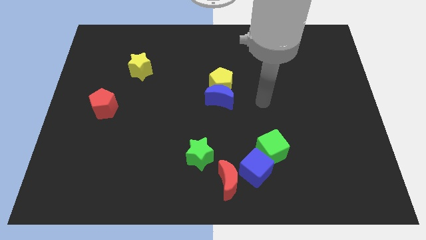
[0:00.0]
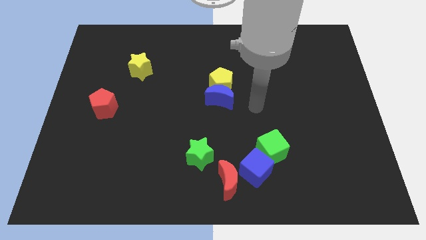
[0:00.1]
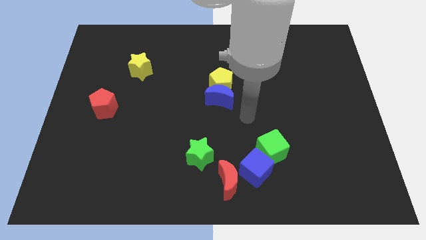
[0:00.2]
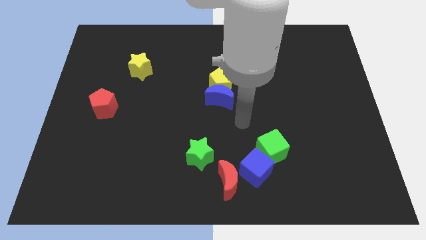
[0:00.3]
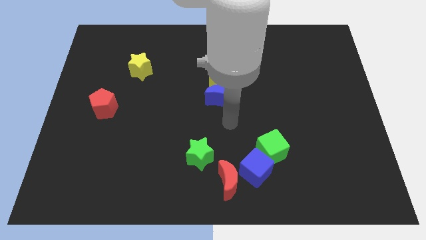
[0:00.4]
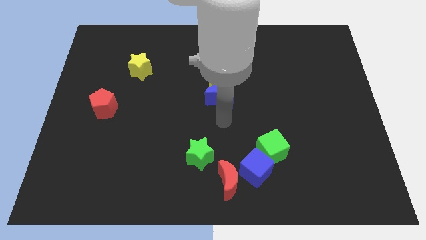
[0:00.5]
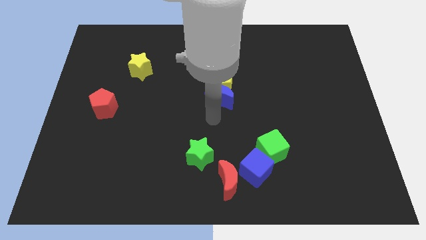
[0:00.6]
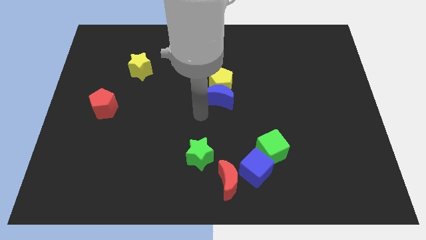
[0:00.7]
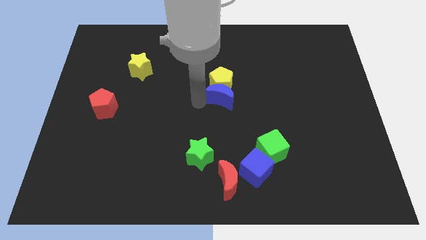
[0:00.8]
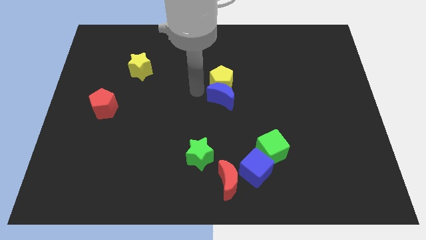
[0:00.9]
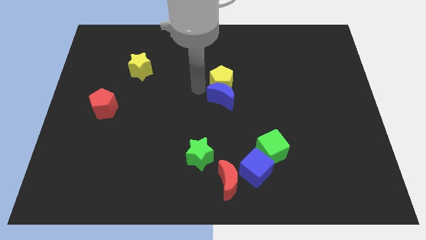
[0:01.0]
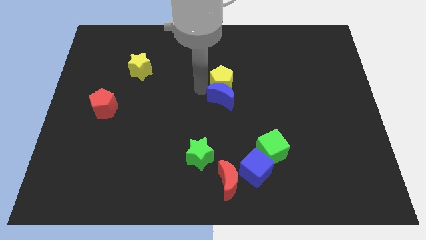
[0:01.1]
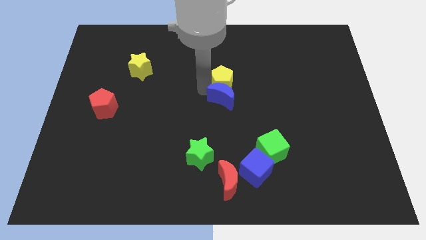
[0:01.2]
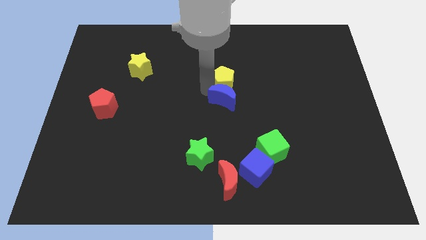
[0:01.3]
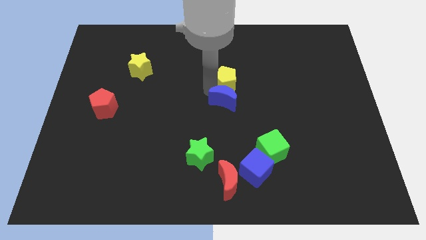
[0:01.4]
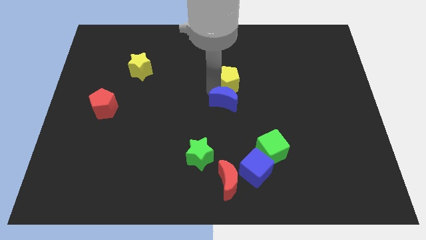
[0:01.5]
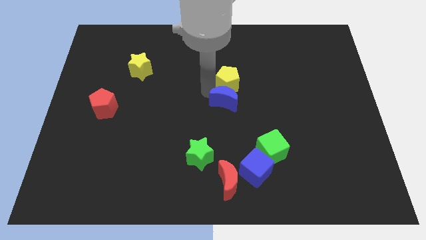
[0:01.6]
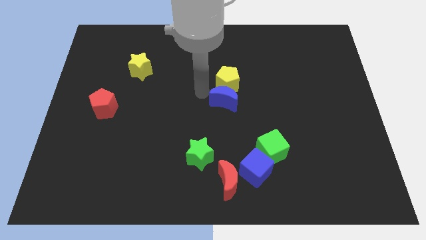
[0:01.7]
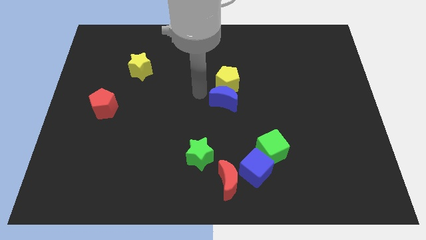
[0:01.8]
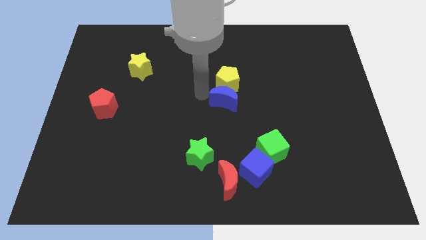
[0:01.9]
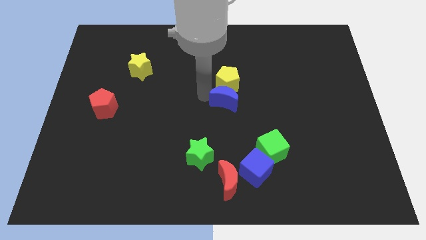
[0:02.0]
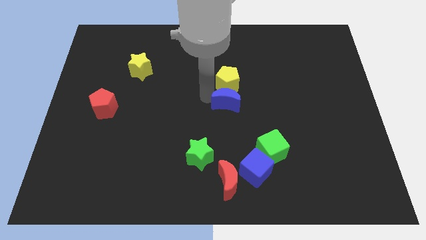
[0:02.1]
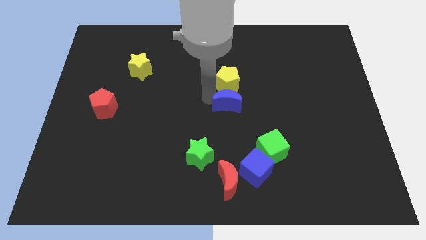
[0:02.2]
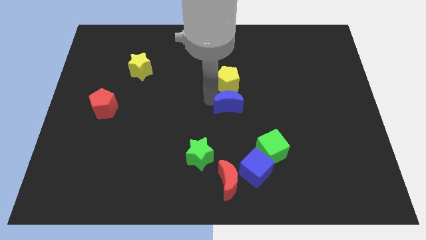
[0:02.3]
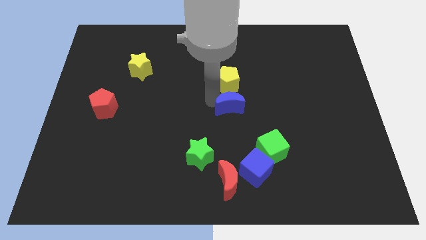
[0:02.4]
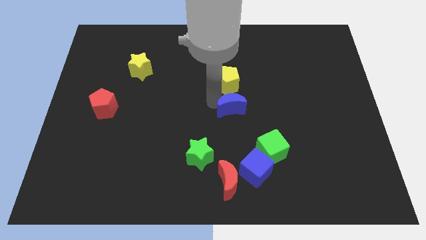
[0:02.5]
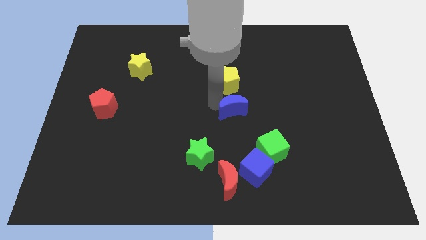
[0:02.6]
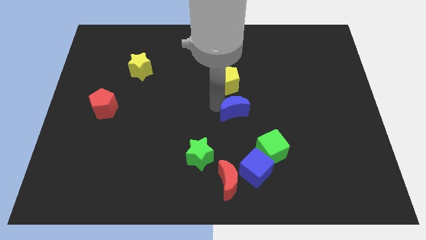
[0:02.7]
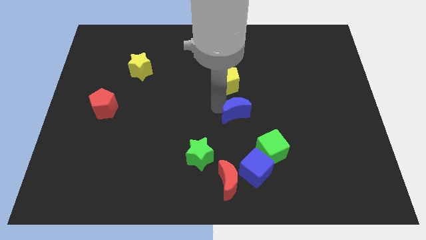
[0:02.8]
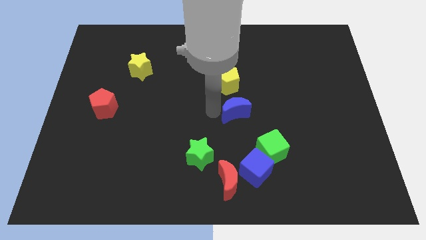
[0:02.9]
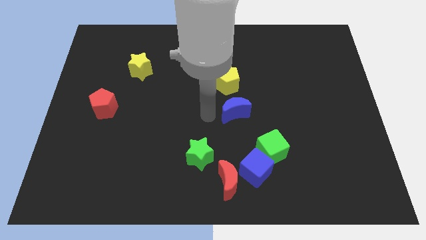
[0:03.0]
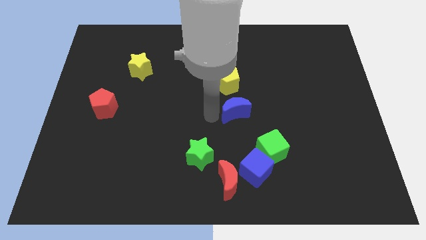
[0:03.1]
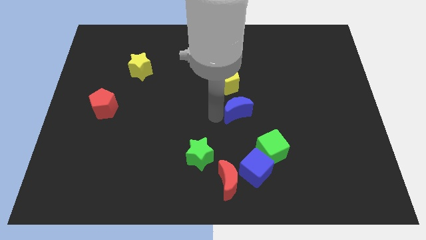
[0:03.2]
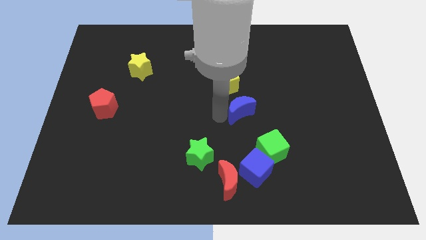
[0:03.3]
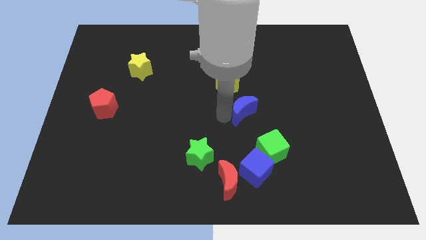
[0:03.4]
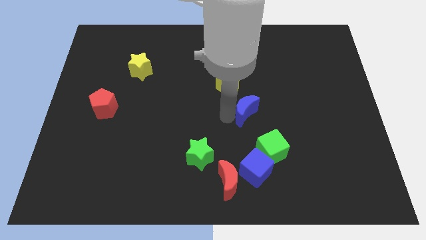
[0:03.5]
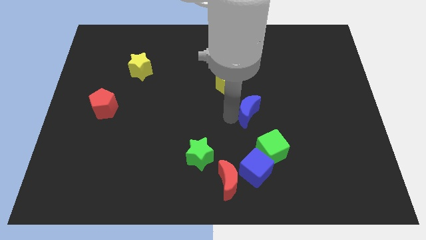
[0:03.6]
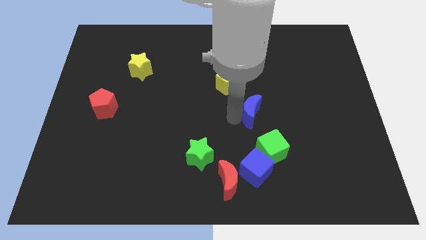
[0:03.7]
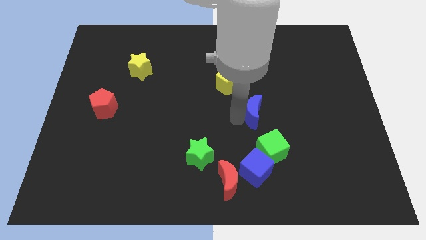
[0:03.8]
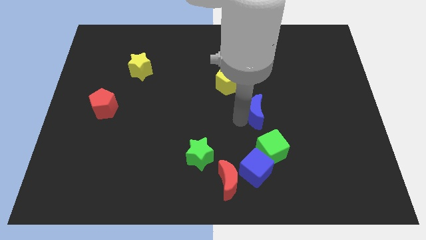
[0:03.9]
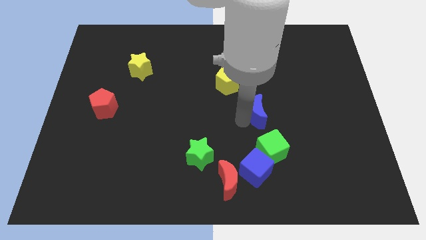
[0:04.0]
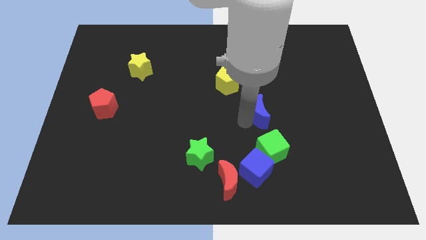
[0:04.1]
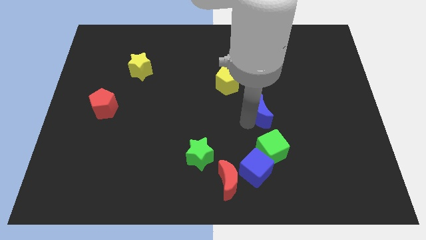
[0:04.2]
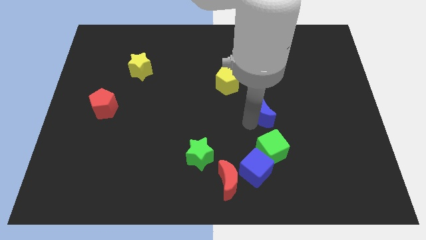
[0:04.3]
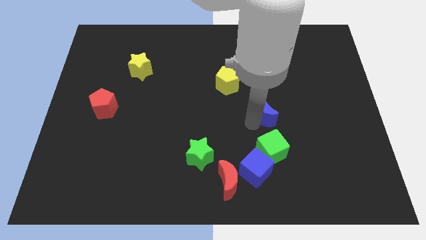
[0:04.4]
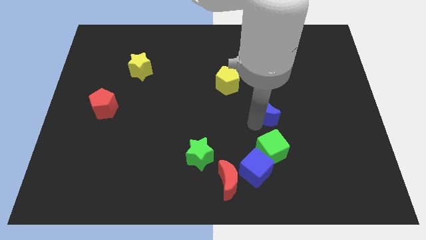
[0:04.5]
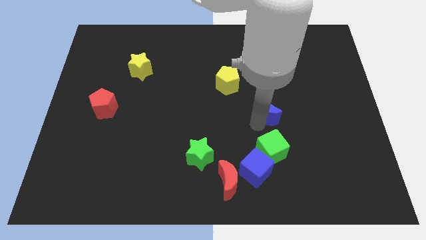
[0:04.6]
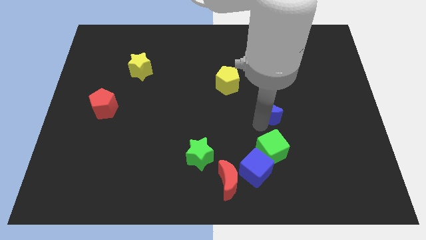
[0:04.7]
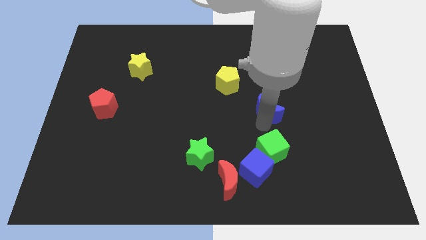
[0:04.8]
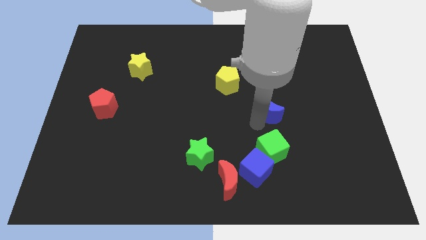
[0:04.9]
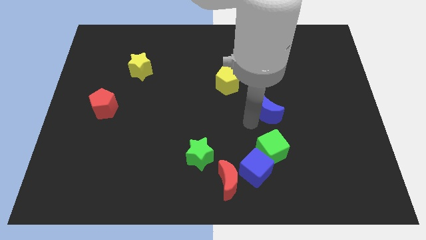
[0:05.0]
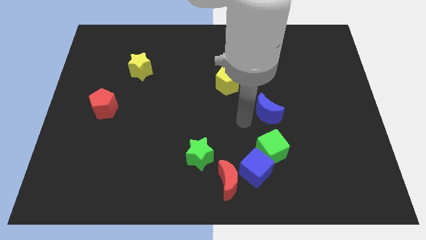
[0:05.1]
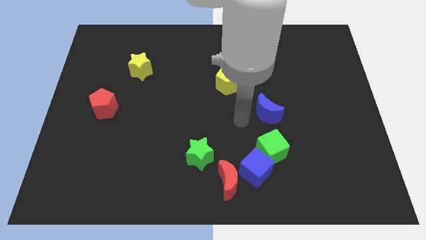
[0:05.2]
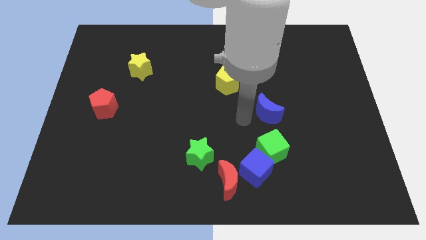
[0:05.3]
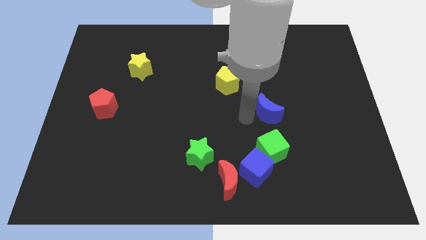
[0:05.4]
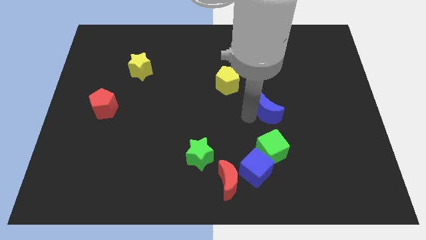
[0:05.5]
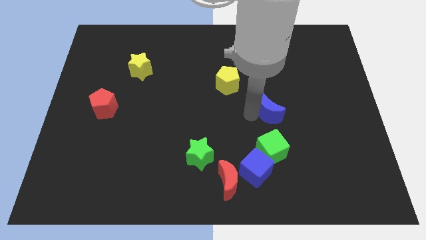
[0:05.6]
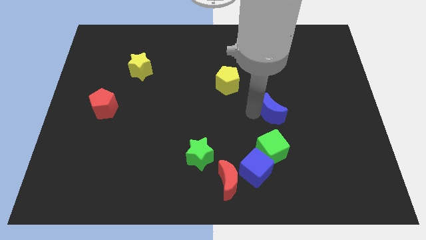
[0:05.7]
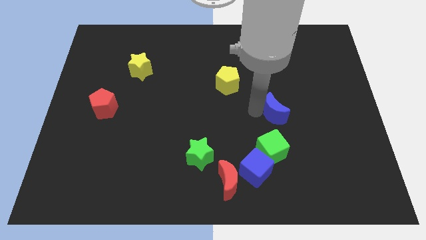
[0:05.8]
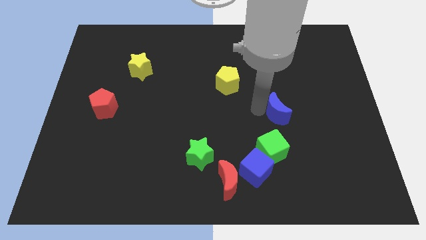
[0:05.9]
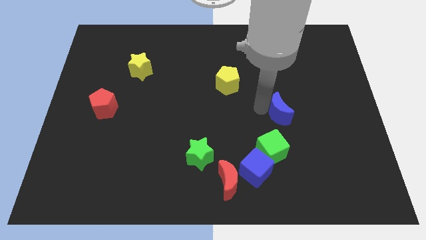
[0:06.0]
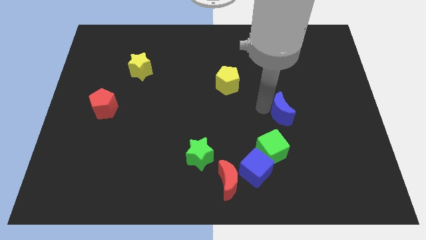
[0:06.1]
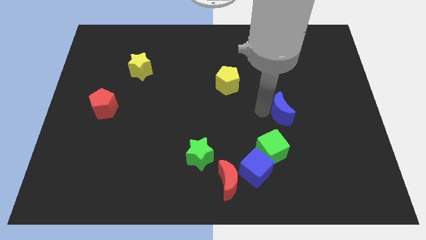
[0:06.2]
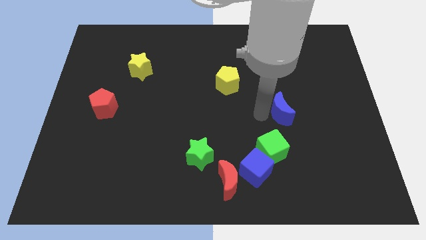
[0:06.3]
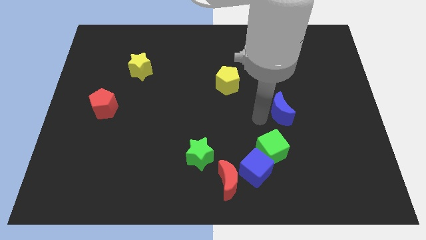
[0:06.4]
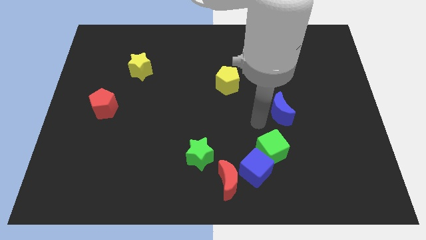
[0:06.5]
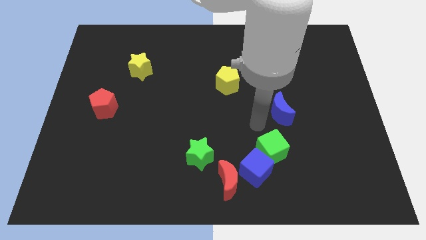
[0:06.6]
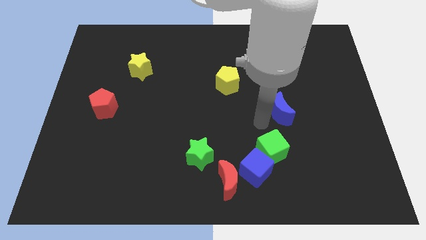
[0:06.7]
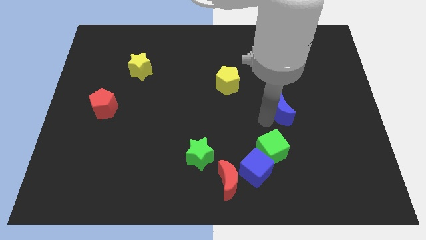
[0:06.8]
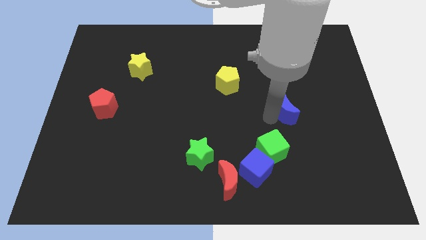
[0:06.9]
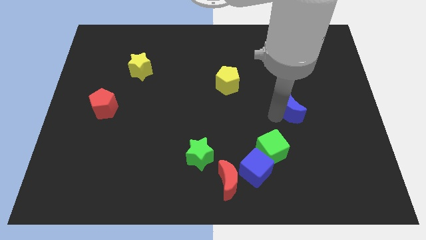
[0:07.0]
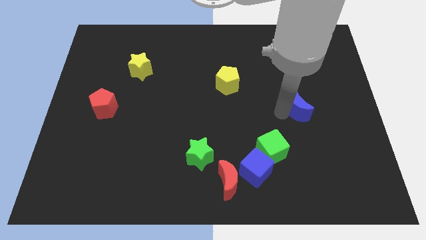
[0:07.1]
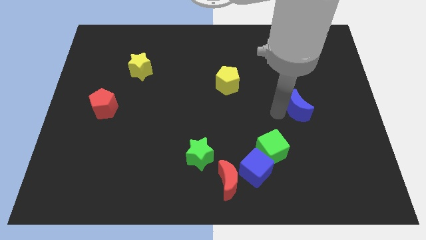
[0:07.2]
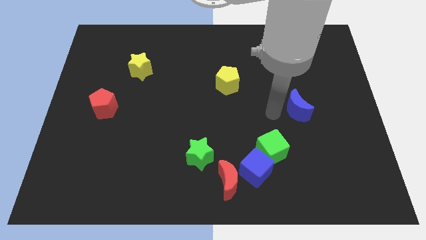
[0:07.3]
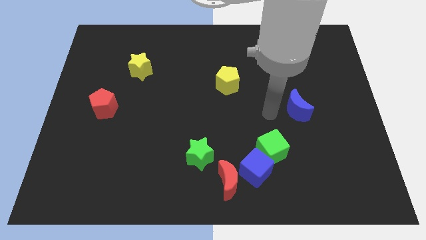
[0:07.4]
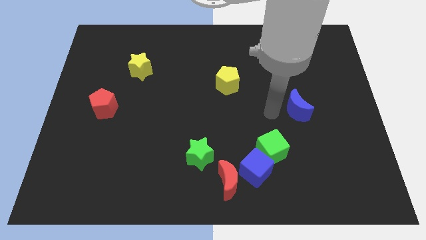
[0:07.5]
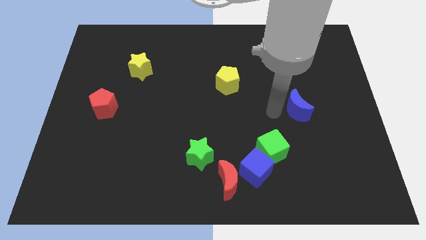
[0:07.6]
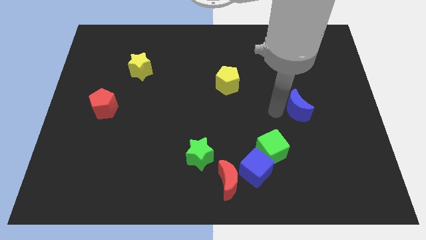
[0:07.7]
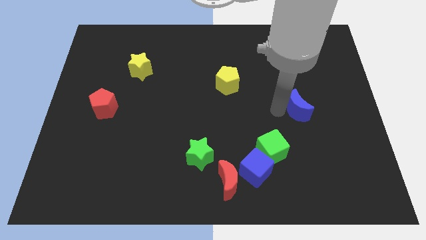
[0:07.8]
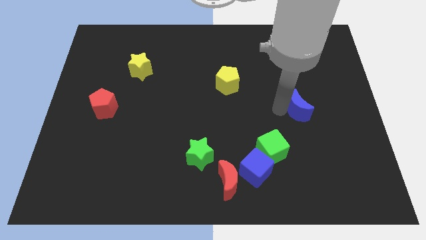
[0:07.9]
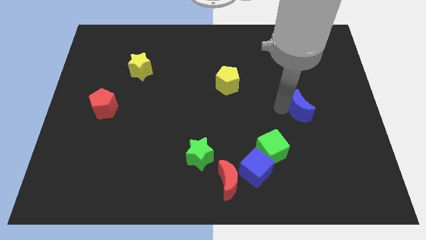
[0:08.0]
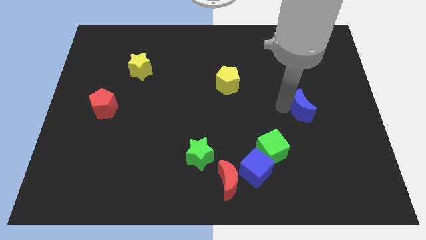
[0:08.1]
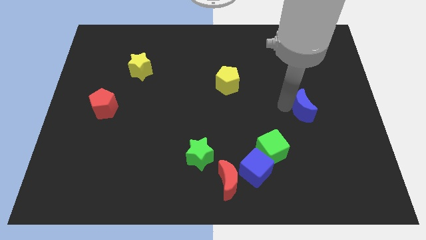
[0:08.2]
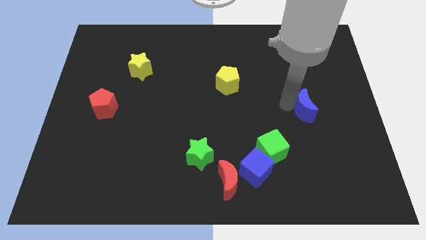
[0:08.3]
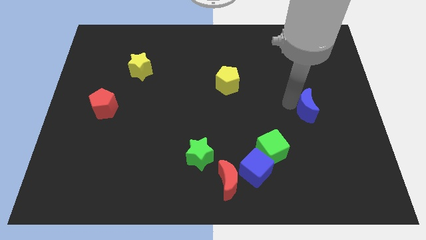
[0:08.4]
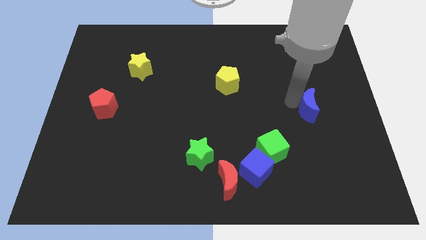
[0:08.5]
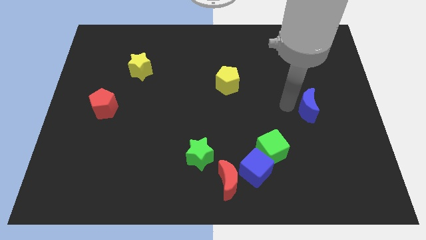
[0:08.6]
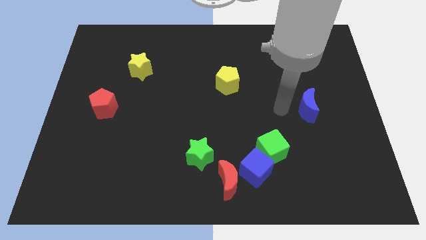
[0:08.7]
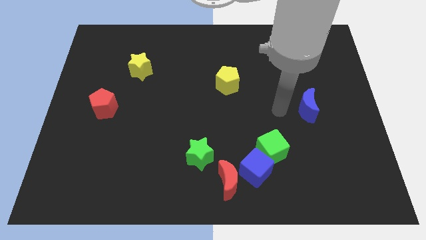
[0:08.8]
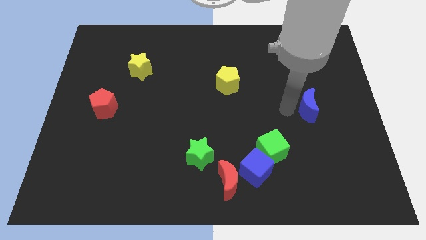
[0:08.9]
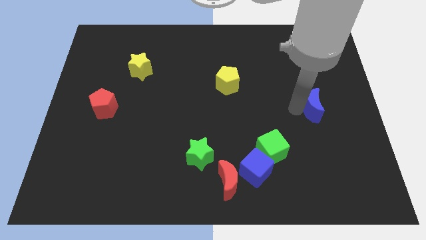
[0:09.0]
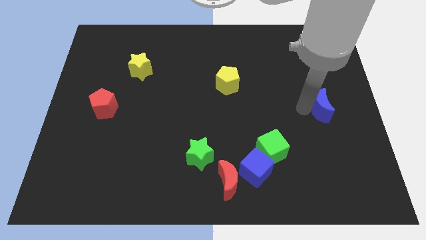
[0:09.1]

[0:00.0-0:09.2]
move the blue moon to the right side
